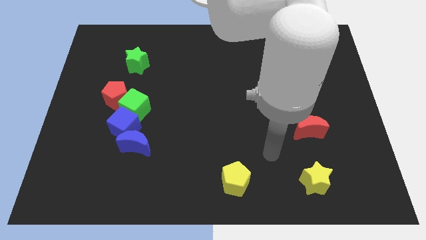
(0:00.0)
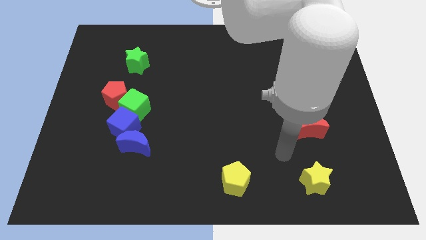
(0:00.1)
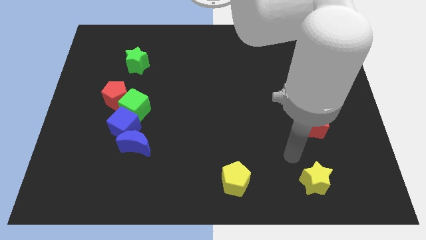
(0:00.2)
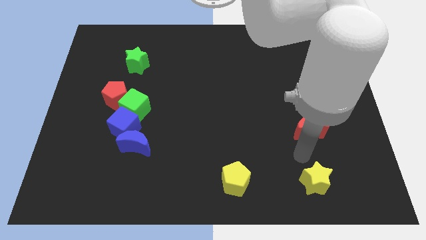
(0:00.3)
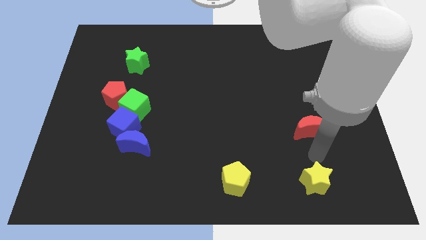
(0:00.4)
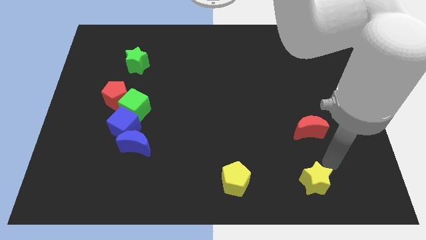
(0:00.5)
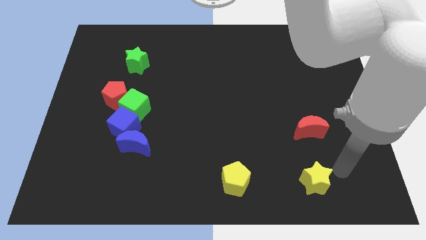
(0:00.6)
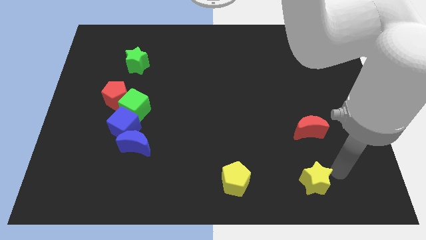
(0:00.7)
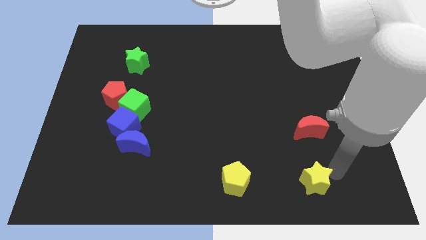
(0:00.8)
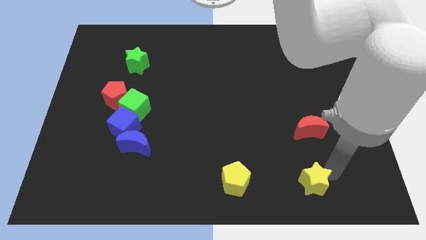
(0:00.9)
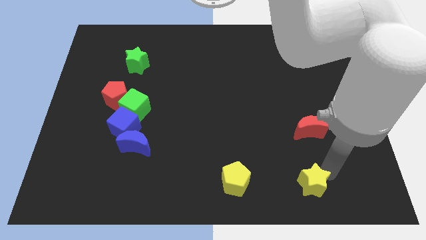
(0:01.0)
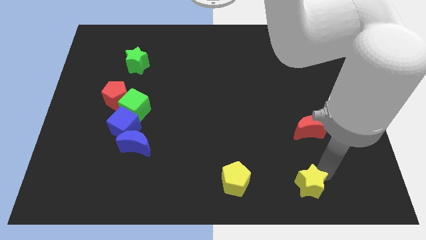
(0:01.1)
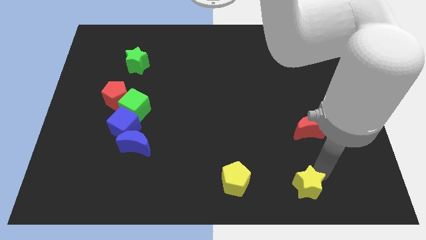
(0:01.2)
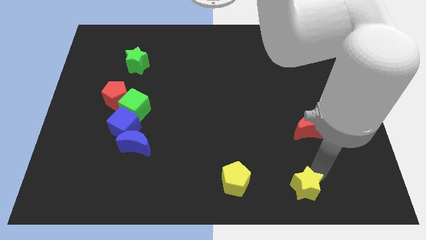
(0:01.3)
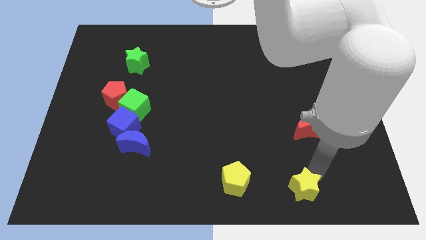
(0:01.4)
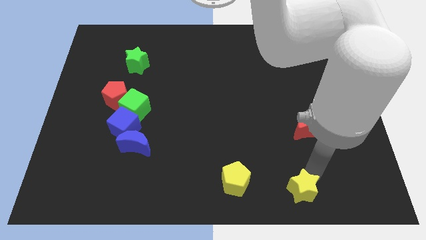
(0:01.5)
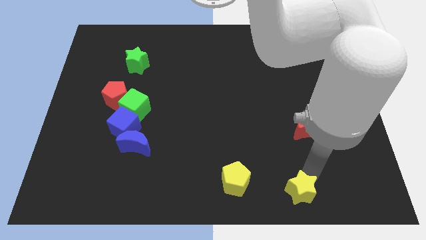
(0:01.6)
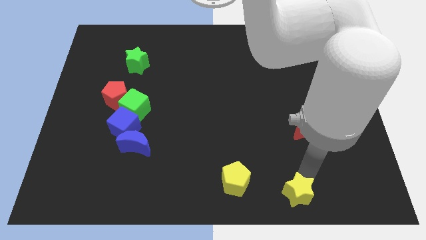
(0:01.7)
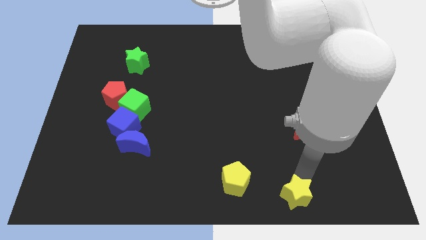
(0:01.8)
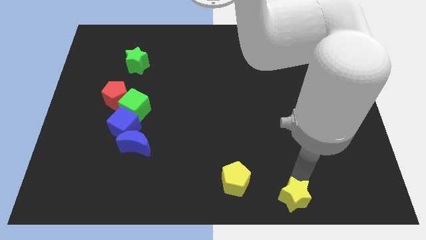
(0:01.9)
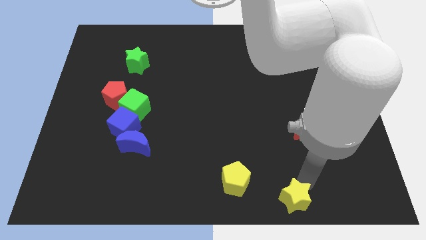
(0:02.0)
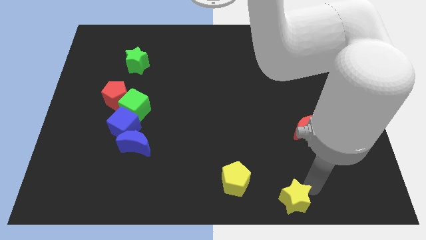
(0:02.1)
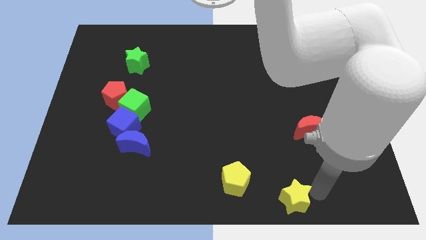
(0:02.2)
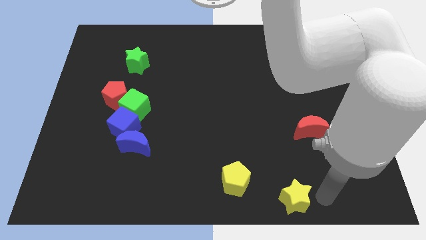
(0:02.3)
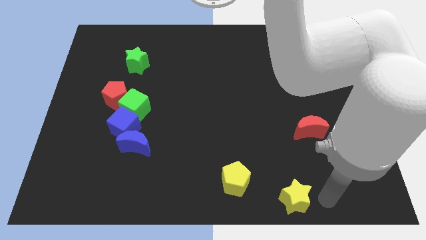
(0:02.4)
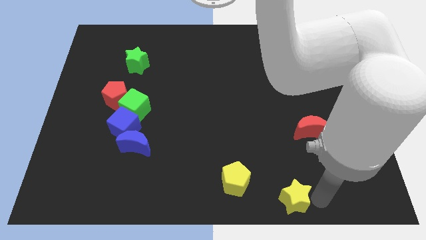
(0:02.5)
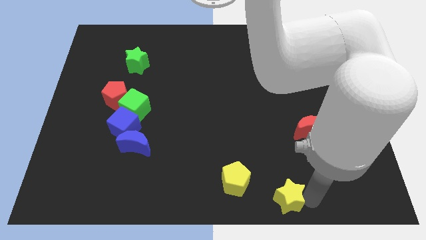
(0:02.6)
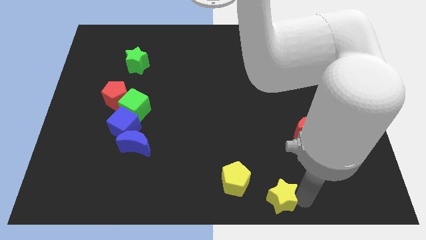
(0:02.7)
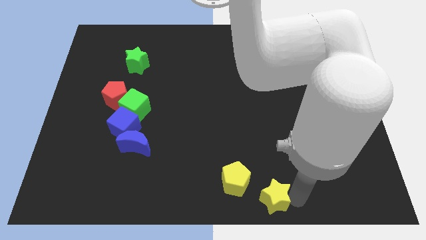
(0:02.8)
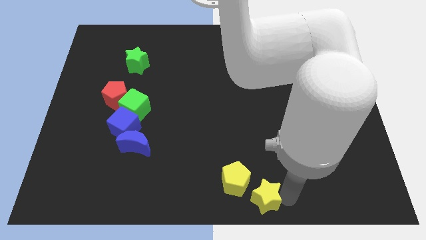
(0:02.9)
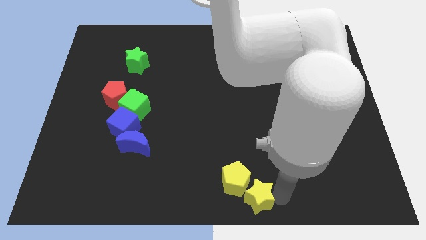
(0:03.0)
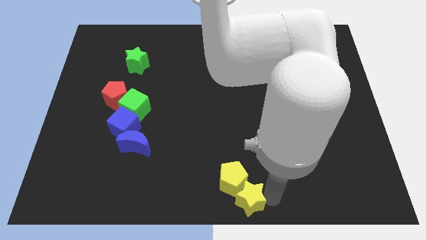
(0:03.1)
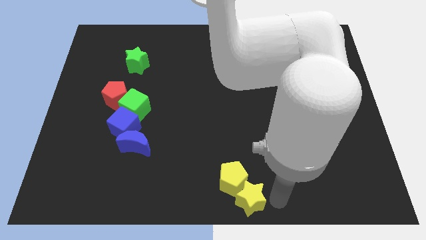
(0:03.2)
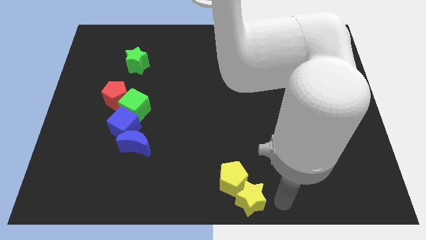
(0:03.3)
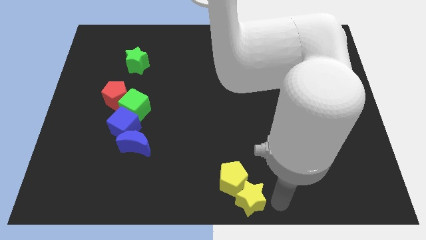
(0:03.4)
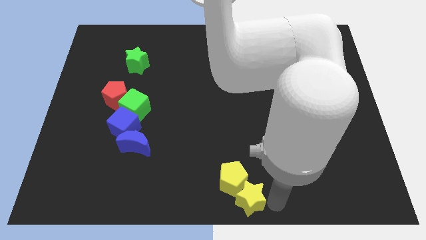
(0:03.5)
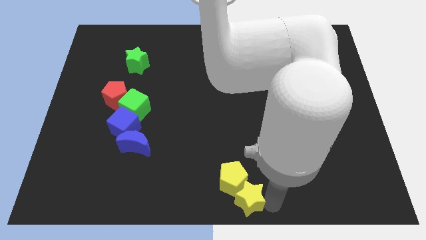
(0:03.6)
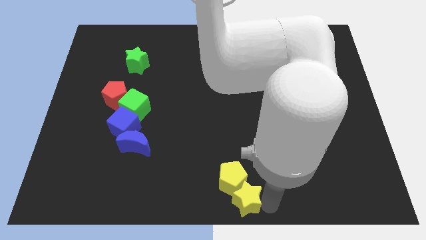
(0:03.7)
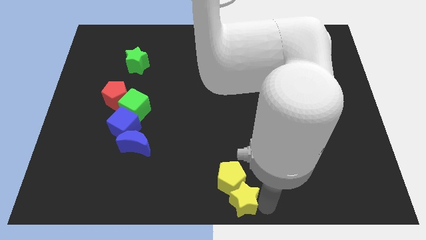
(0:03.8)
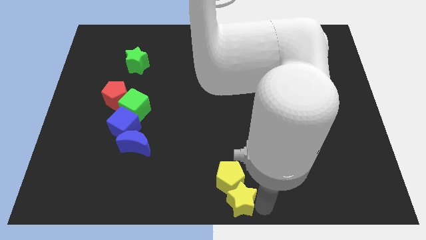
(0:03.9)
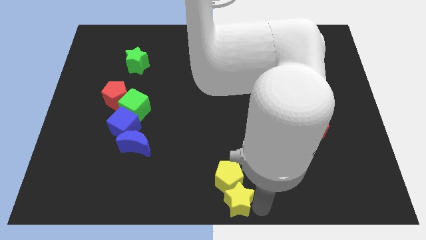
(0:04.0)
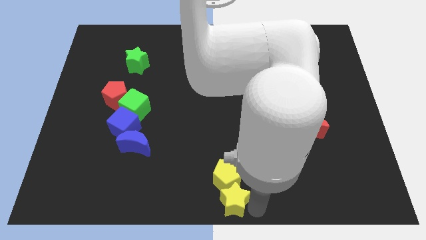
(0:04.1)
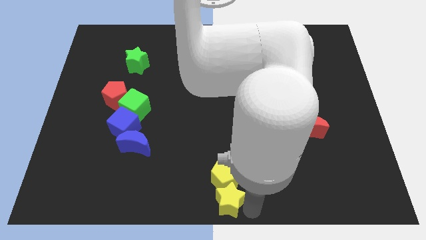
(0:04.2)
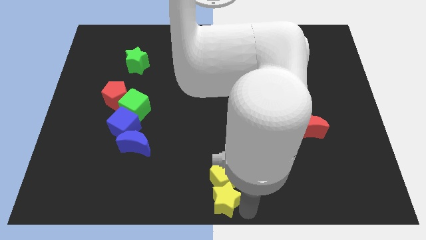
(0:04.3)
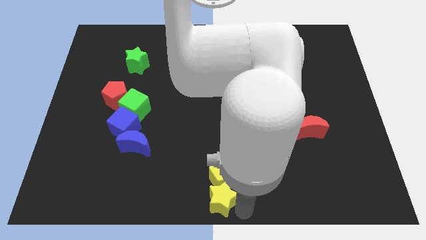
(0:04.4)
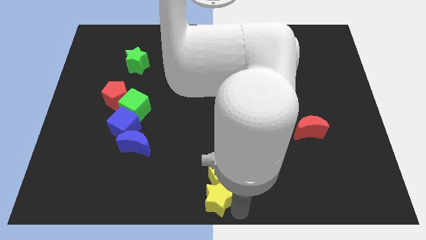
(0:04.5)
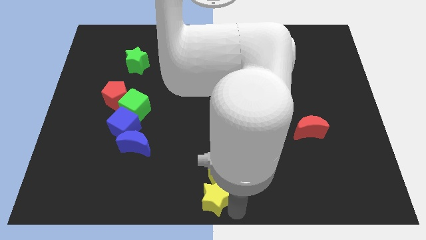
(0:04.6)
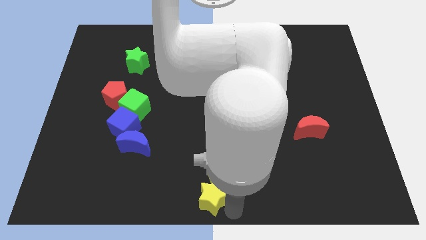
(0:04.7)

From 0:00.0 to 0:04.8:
move the yellow star left

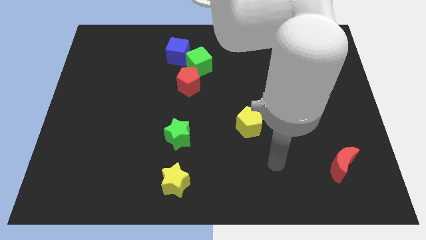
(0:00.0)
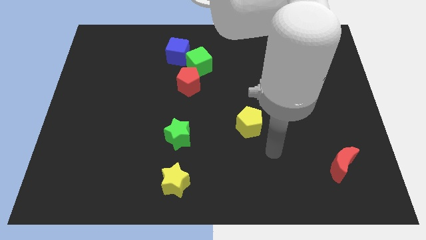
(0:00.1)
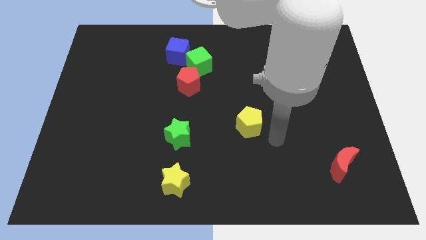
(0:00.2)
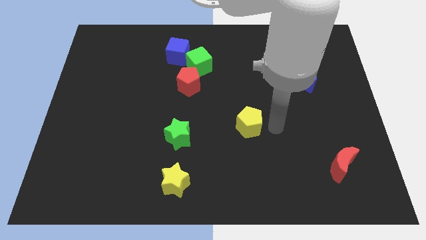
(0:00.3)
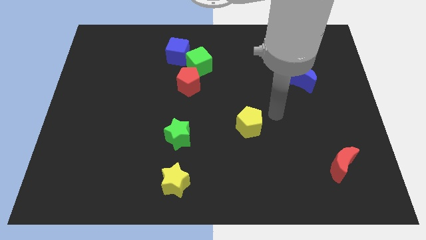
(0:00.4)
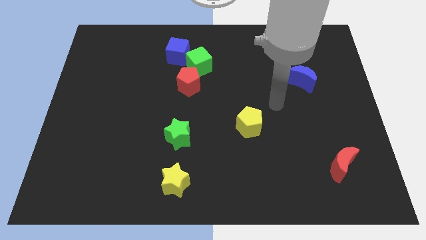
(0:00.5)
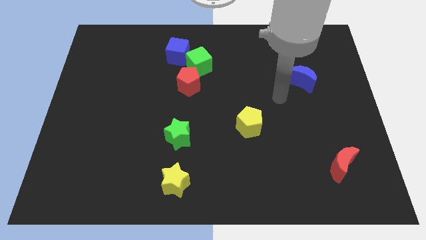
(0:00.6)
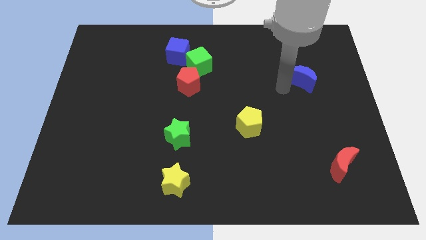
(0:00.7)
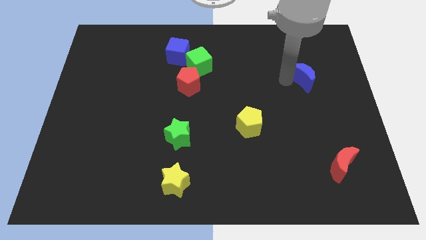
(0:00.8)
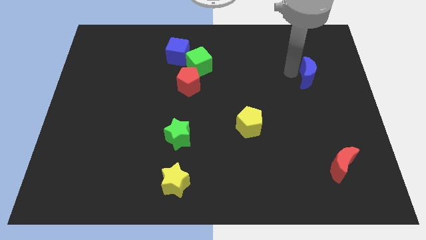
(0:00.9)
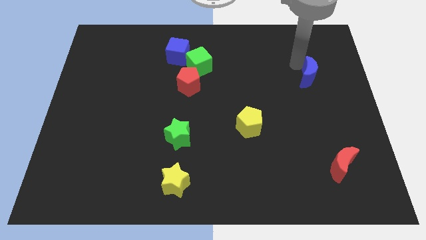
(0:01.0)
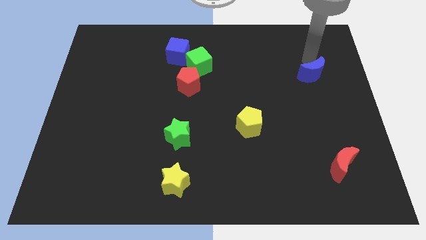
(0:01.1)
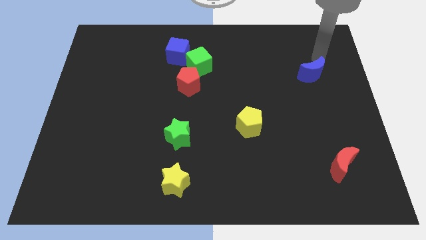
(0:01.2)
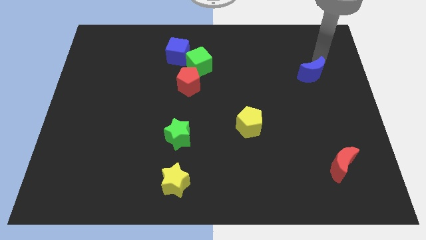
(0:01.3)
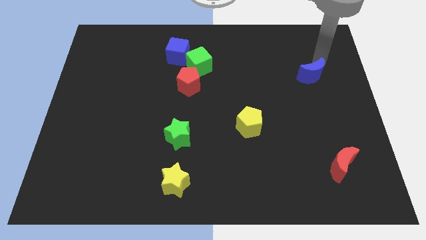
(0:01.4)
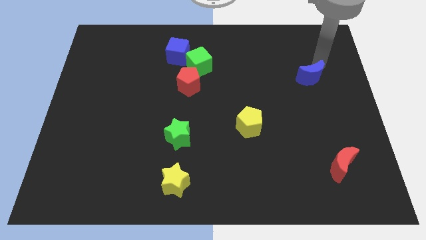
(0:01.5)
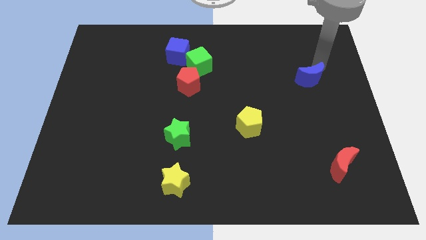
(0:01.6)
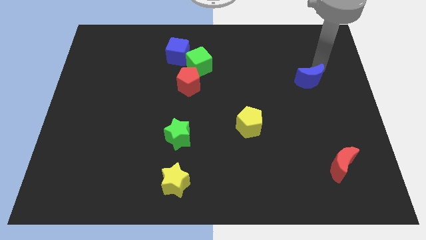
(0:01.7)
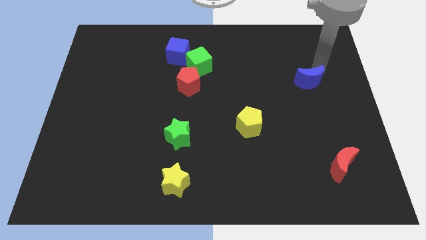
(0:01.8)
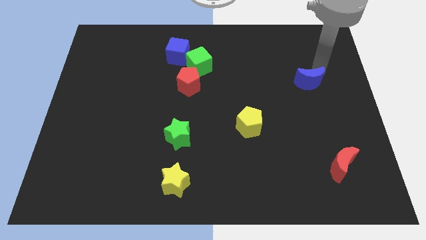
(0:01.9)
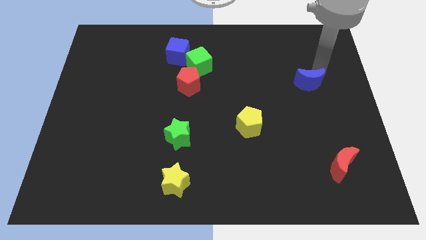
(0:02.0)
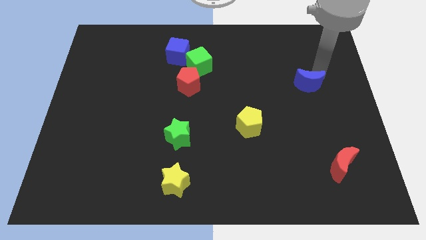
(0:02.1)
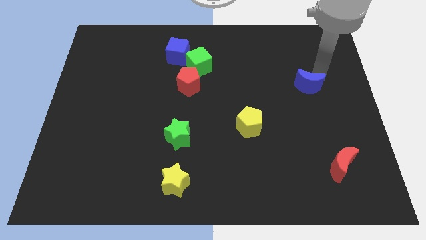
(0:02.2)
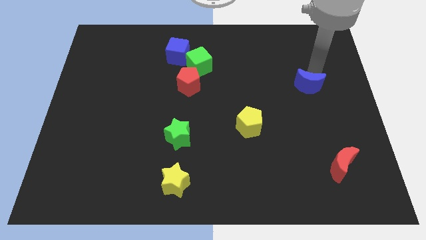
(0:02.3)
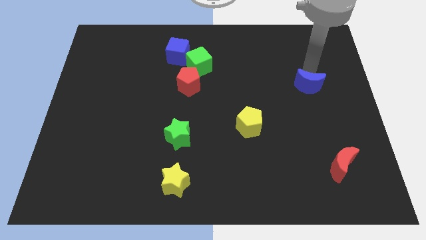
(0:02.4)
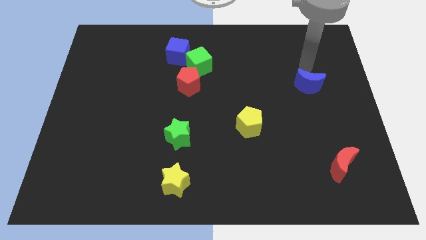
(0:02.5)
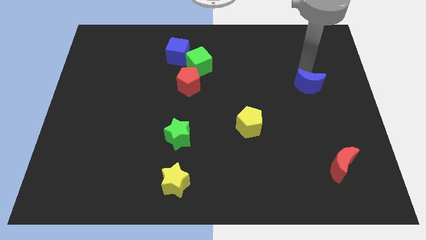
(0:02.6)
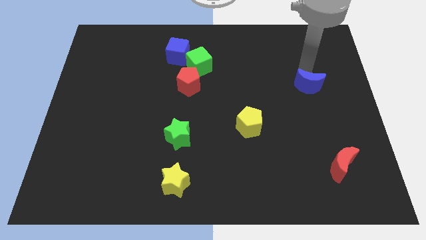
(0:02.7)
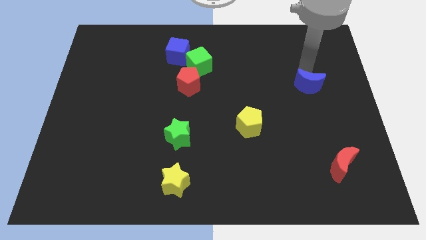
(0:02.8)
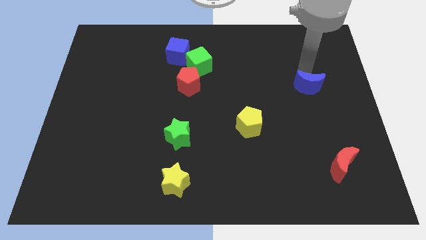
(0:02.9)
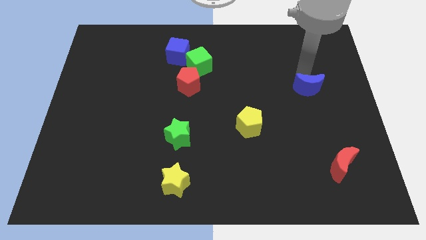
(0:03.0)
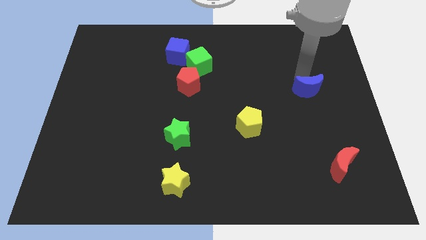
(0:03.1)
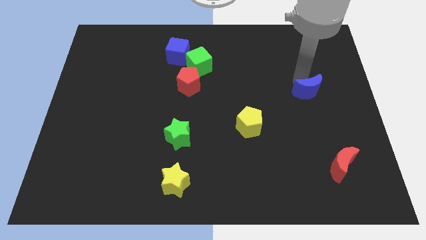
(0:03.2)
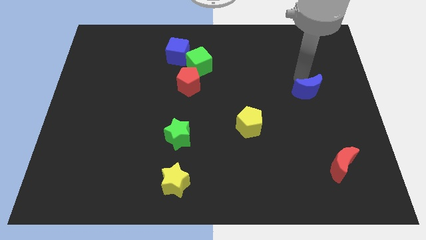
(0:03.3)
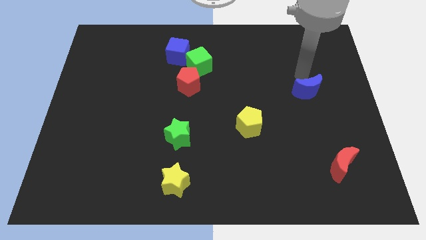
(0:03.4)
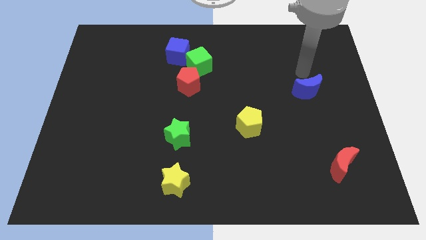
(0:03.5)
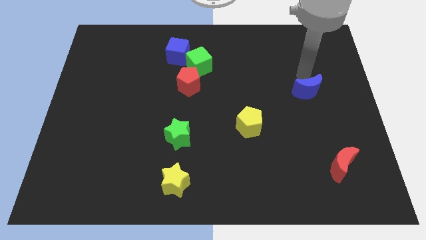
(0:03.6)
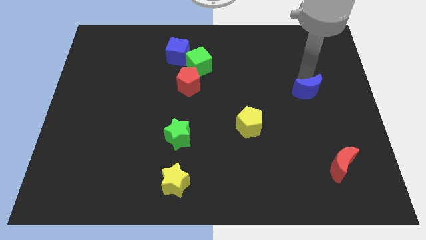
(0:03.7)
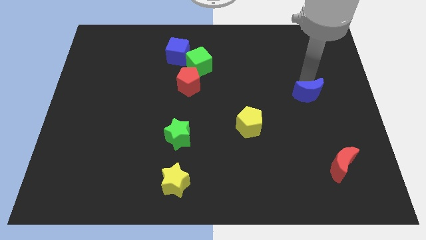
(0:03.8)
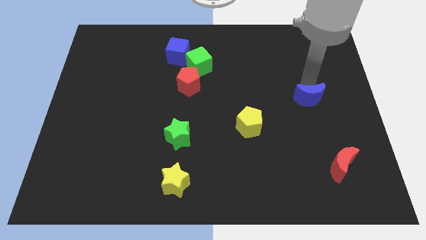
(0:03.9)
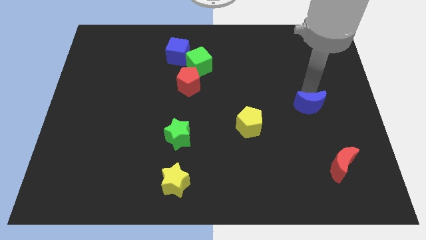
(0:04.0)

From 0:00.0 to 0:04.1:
slightly push the blue moon down
